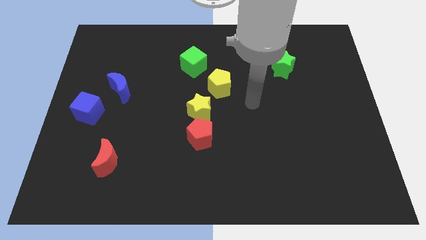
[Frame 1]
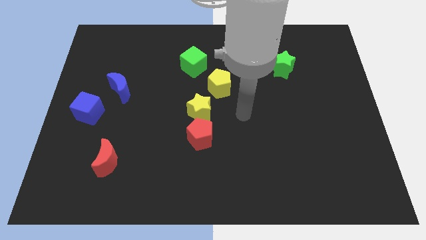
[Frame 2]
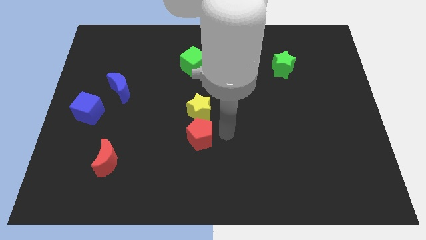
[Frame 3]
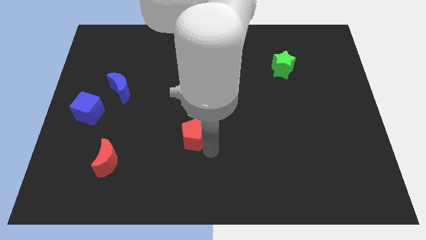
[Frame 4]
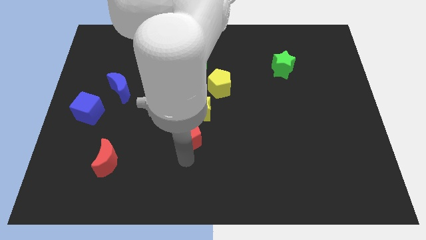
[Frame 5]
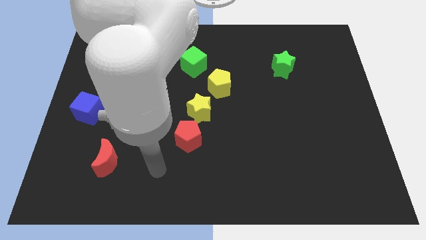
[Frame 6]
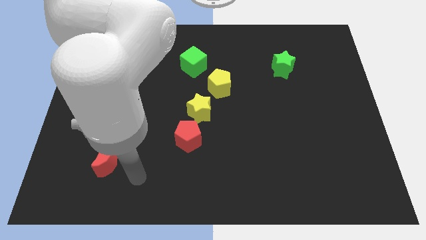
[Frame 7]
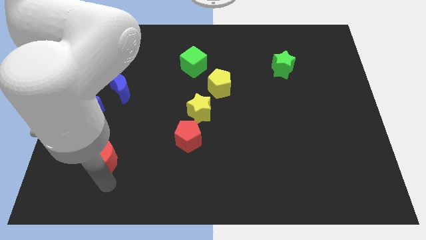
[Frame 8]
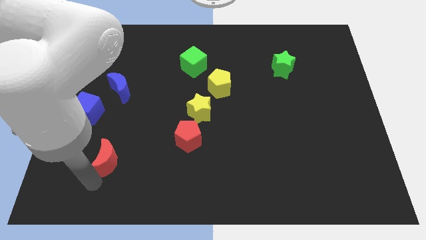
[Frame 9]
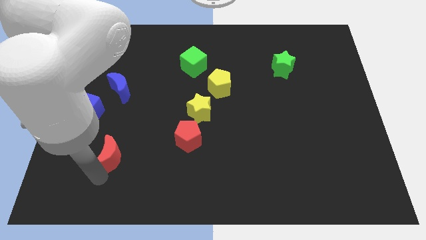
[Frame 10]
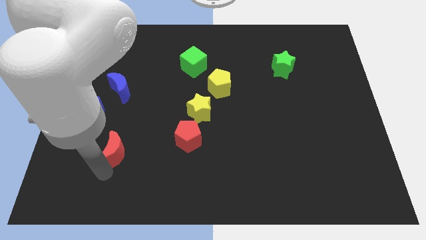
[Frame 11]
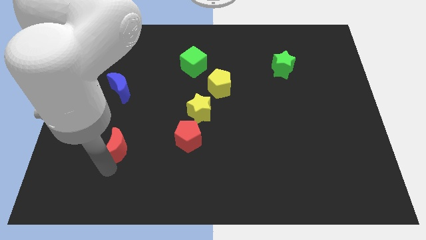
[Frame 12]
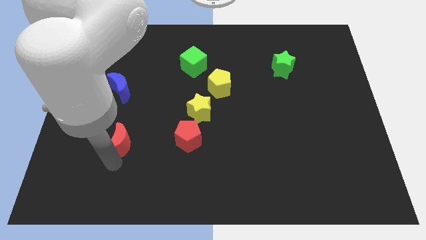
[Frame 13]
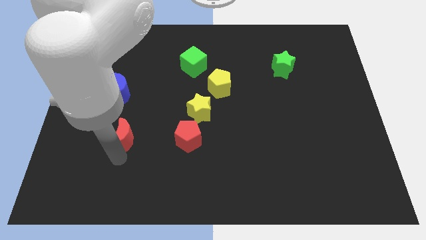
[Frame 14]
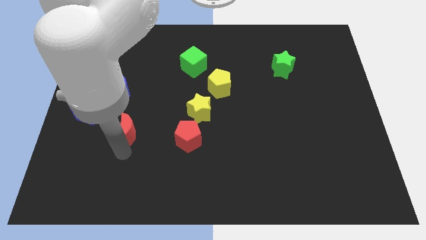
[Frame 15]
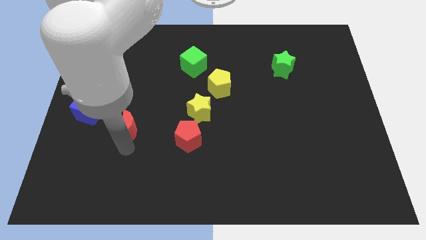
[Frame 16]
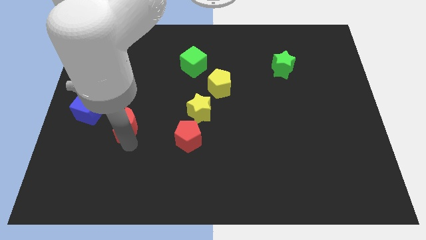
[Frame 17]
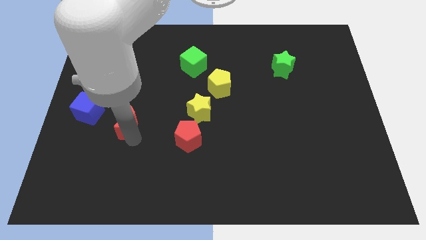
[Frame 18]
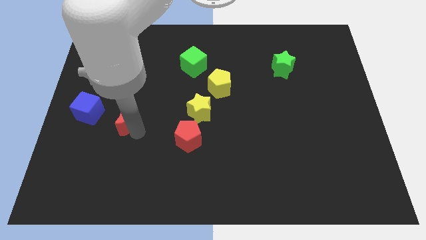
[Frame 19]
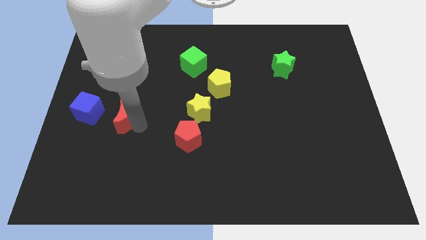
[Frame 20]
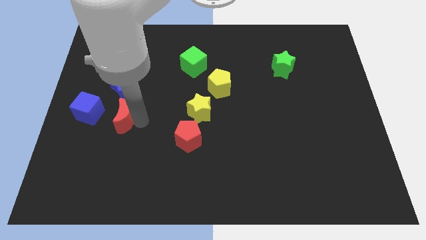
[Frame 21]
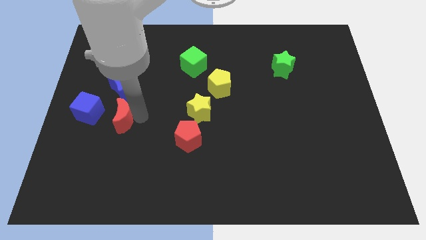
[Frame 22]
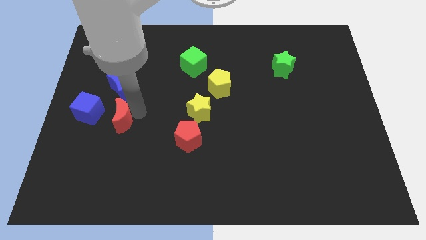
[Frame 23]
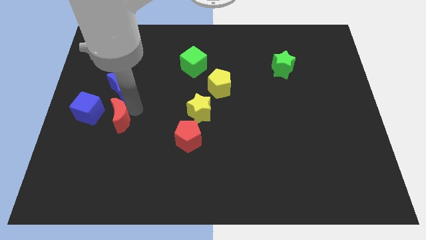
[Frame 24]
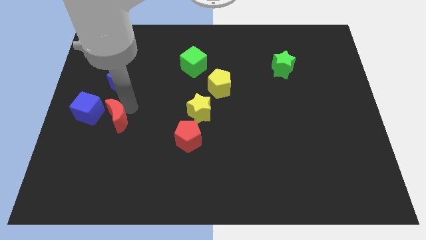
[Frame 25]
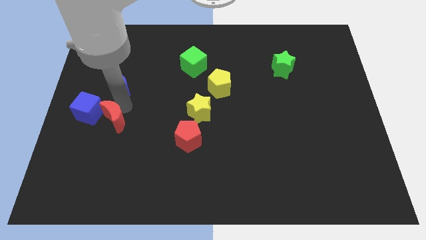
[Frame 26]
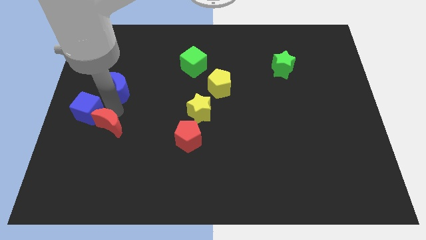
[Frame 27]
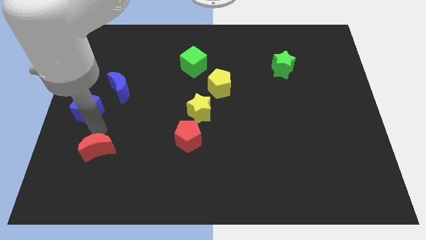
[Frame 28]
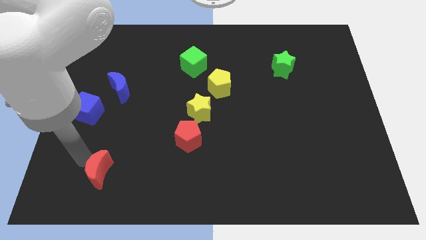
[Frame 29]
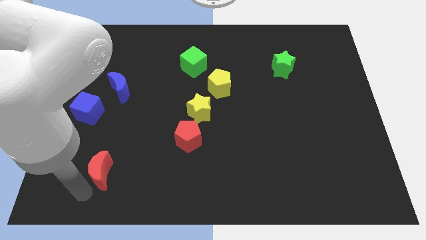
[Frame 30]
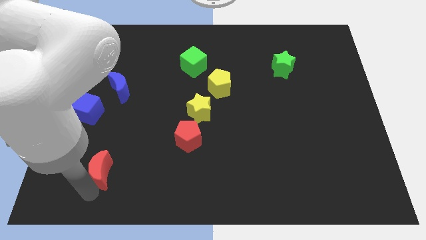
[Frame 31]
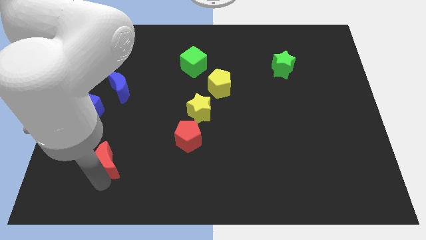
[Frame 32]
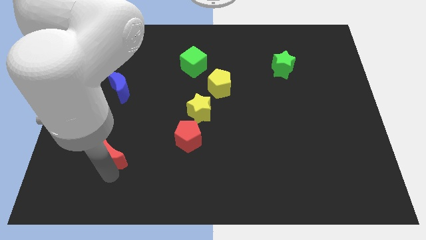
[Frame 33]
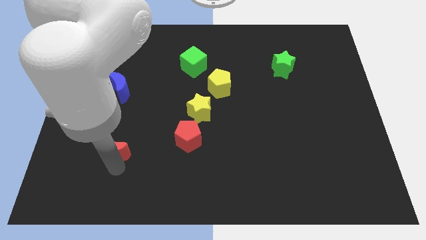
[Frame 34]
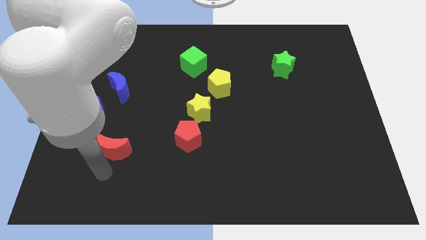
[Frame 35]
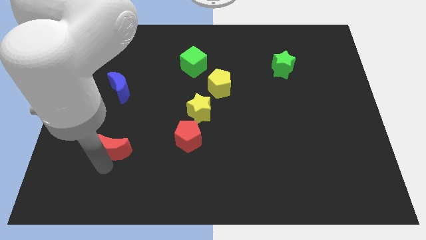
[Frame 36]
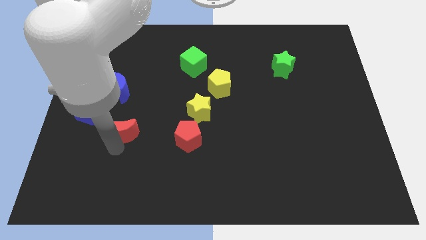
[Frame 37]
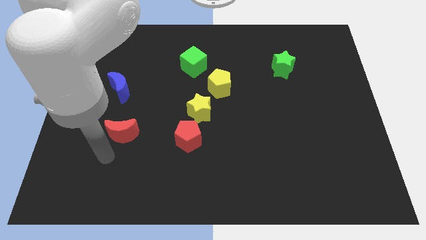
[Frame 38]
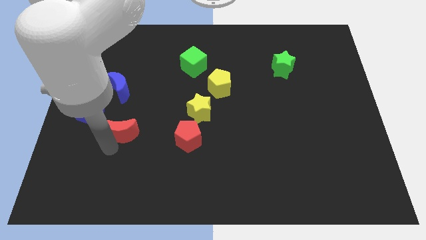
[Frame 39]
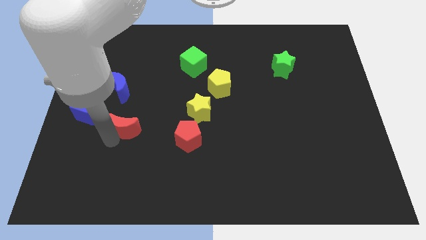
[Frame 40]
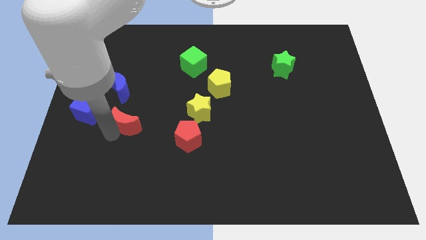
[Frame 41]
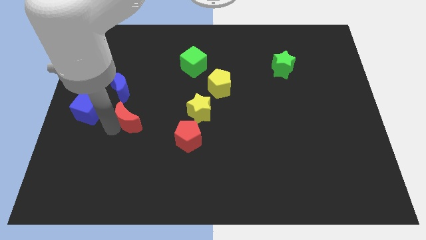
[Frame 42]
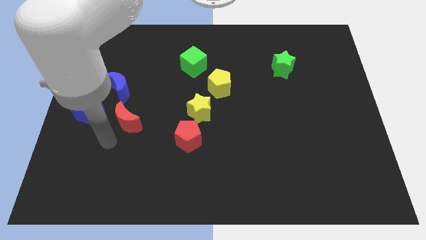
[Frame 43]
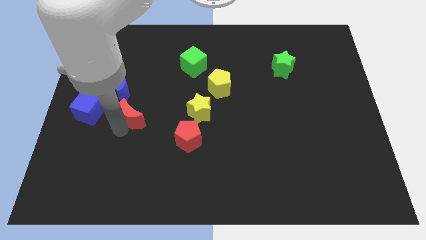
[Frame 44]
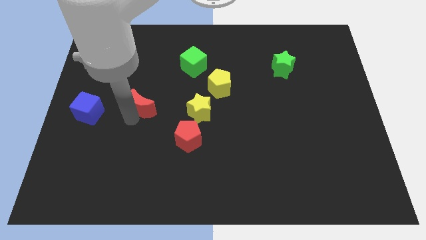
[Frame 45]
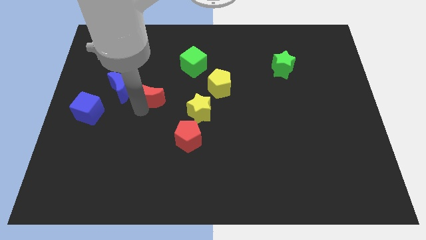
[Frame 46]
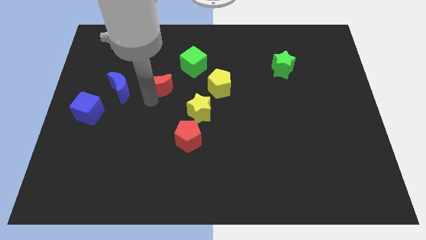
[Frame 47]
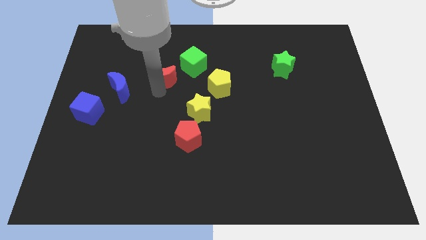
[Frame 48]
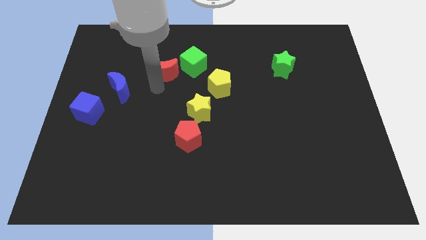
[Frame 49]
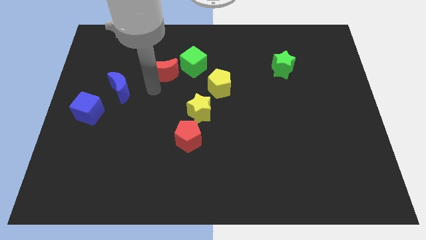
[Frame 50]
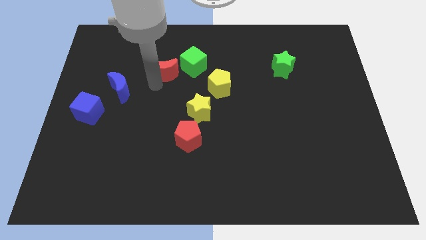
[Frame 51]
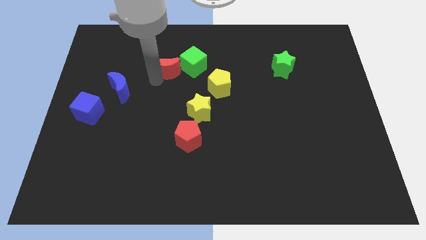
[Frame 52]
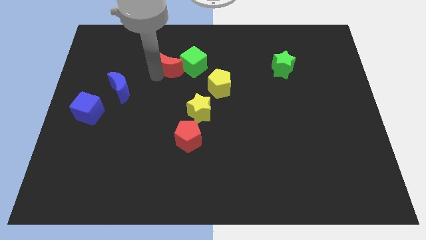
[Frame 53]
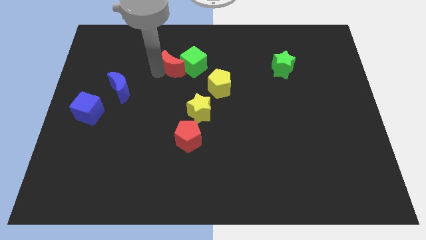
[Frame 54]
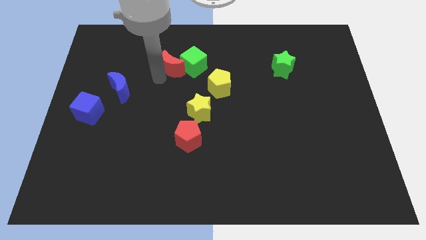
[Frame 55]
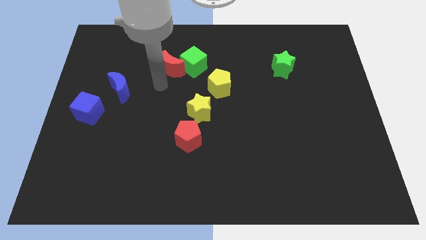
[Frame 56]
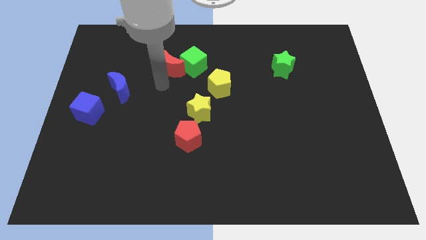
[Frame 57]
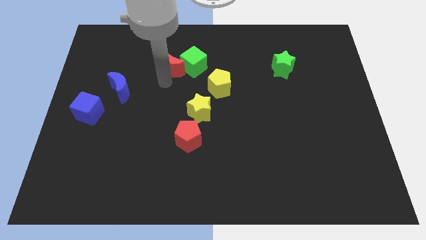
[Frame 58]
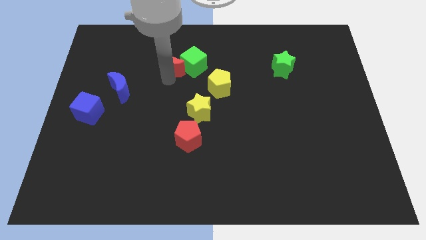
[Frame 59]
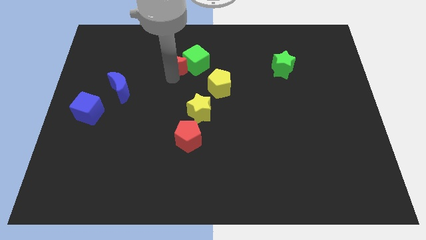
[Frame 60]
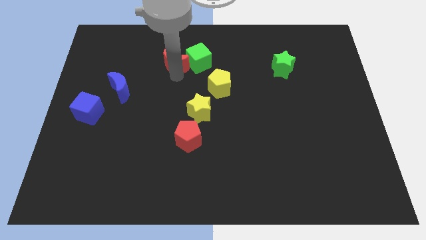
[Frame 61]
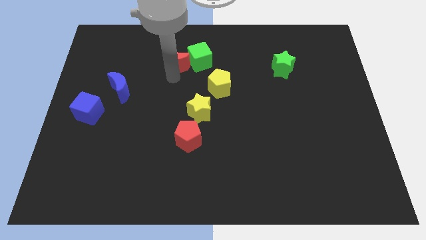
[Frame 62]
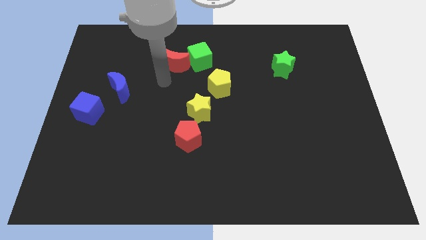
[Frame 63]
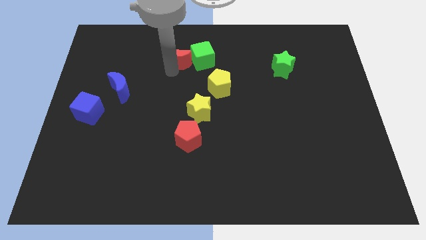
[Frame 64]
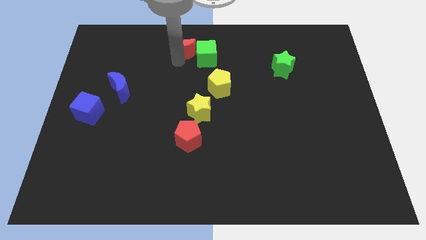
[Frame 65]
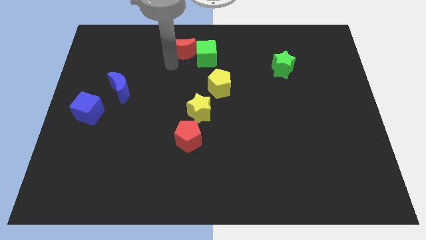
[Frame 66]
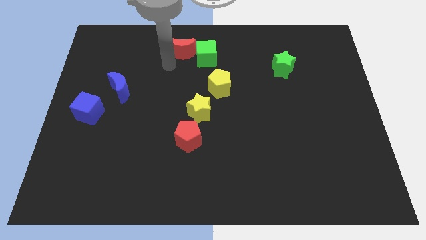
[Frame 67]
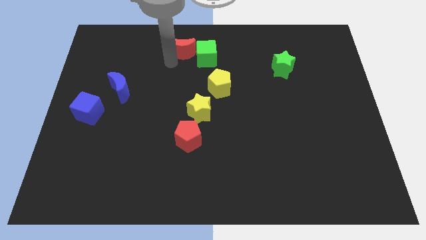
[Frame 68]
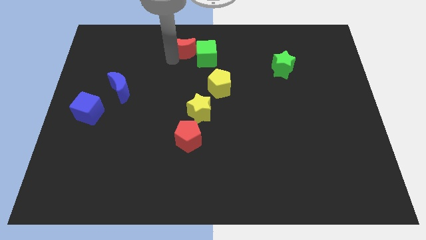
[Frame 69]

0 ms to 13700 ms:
put the red moon to the top

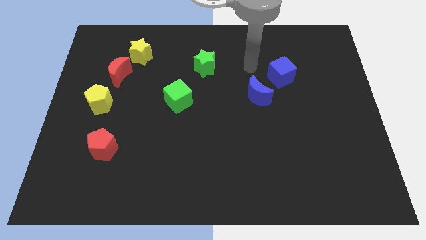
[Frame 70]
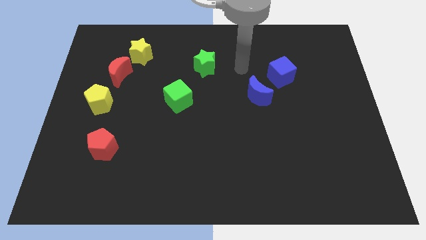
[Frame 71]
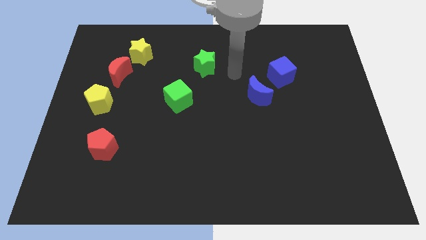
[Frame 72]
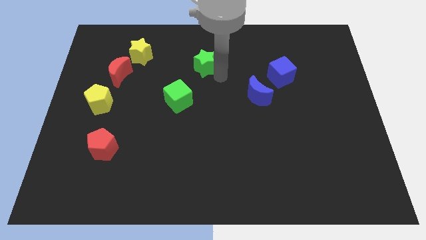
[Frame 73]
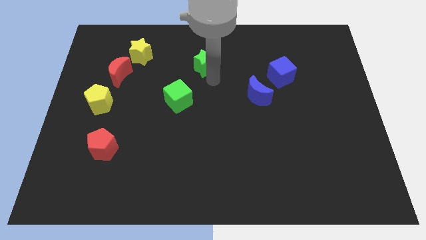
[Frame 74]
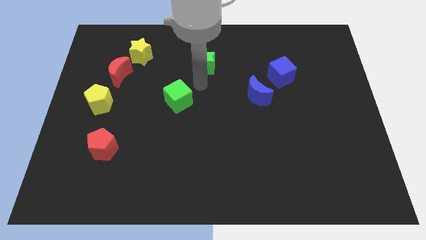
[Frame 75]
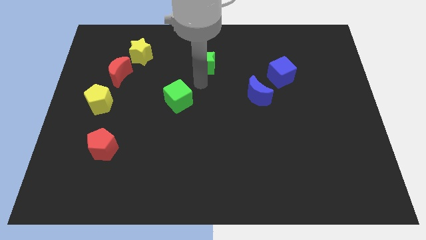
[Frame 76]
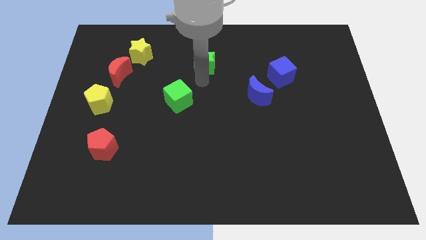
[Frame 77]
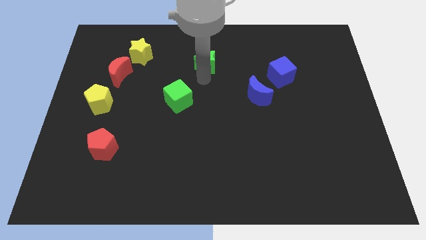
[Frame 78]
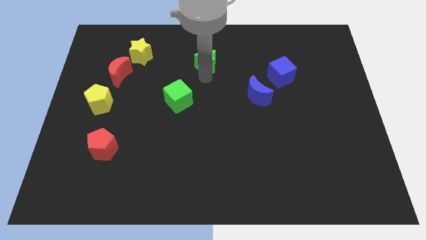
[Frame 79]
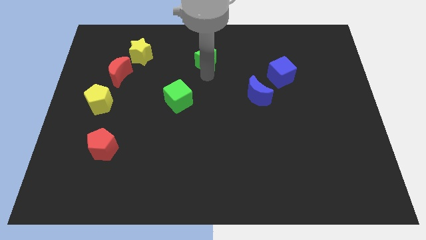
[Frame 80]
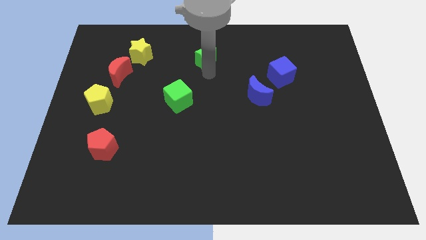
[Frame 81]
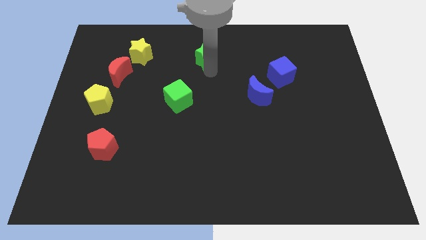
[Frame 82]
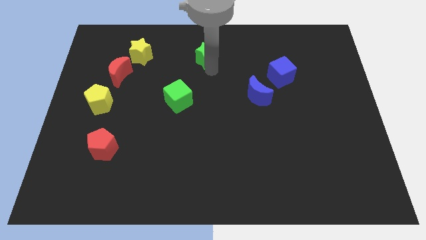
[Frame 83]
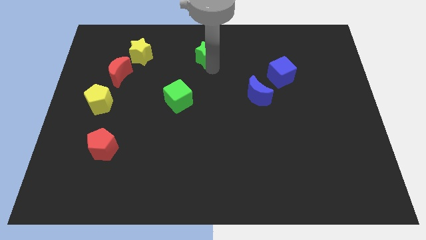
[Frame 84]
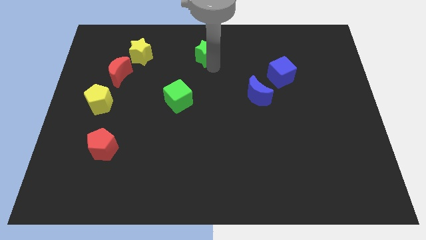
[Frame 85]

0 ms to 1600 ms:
put the green star to the towards your base
